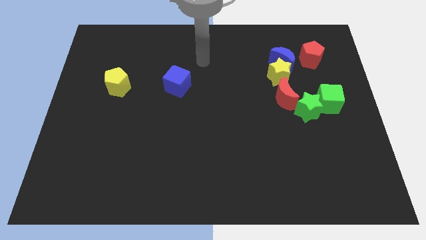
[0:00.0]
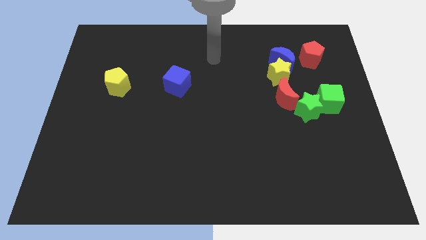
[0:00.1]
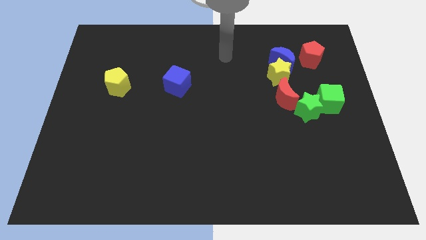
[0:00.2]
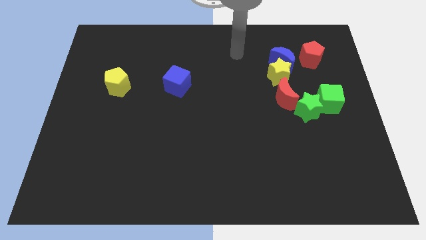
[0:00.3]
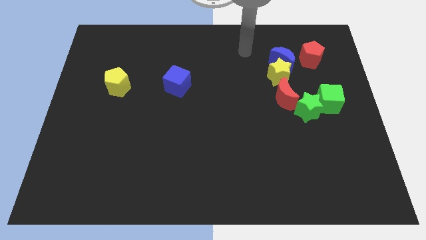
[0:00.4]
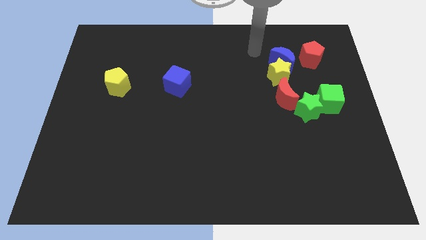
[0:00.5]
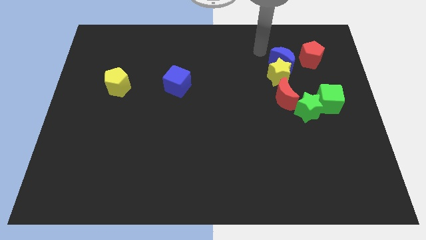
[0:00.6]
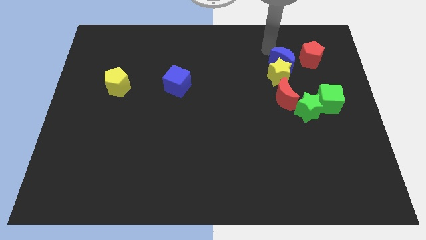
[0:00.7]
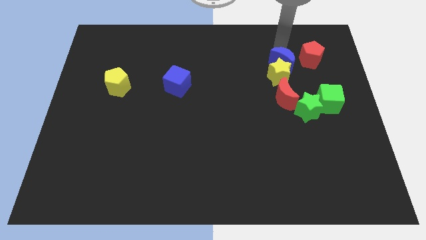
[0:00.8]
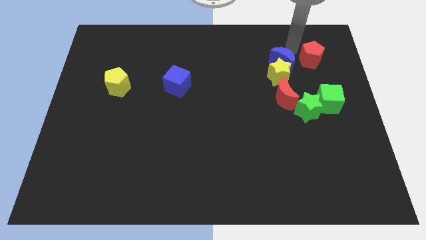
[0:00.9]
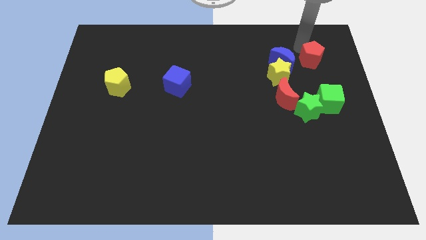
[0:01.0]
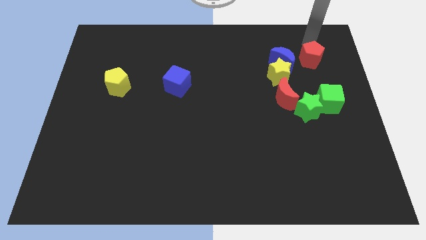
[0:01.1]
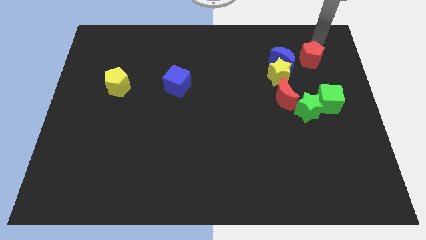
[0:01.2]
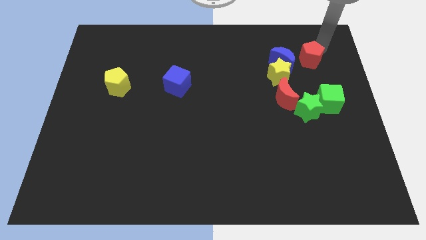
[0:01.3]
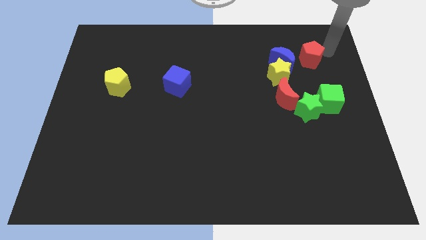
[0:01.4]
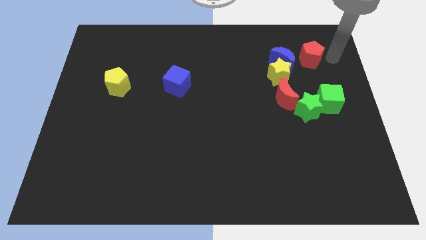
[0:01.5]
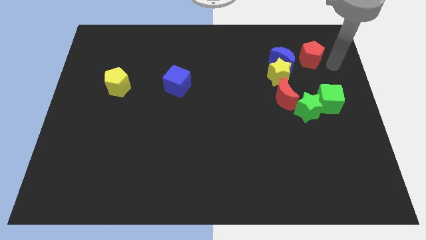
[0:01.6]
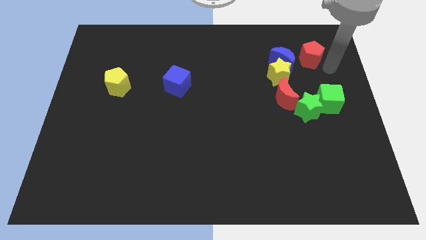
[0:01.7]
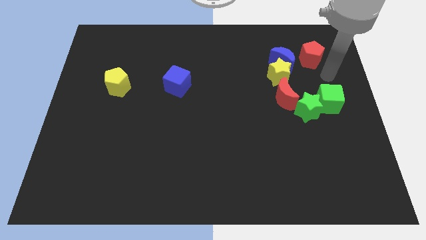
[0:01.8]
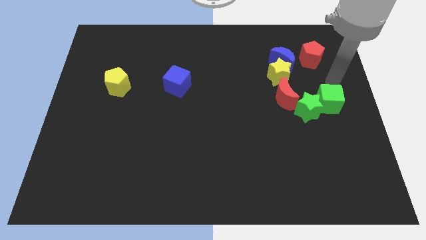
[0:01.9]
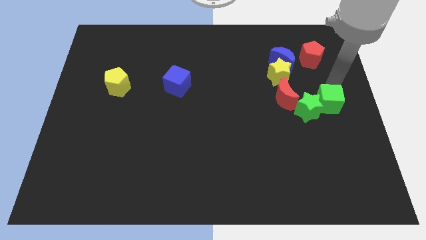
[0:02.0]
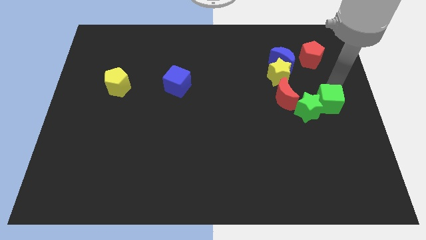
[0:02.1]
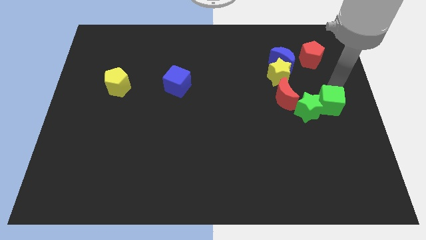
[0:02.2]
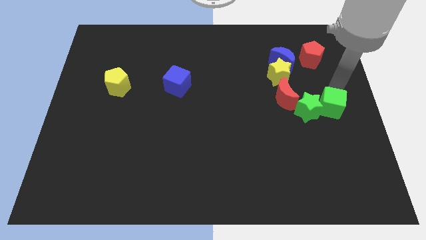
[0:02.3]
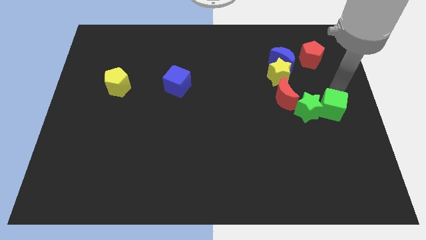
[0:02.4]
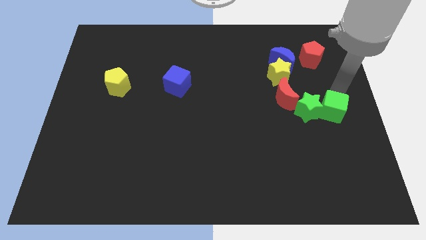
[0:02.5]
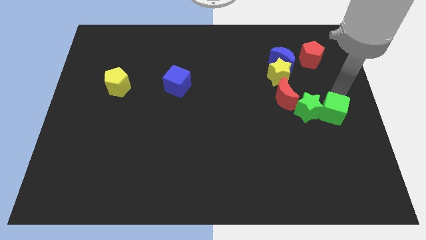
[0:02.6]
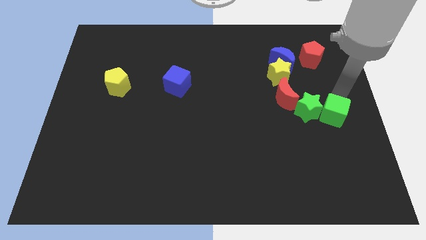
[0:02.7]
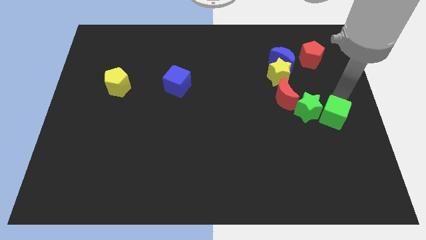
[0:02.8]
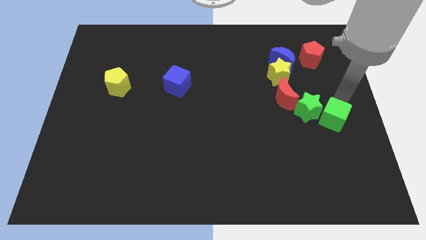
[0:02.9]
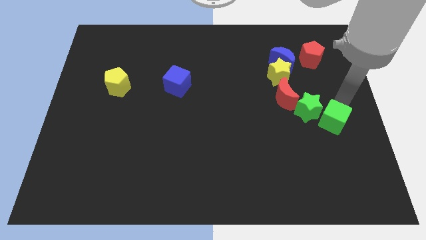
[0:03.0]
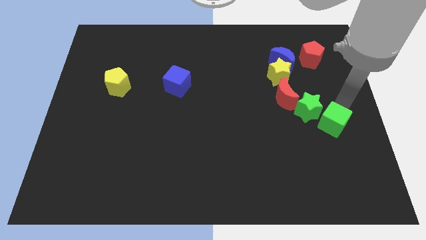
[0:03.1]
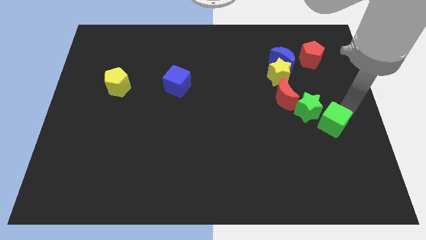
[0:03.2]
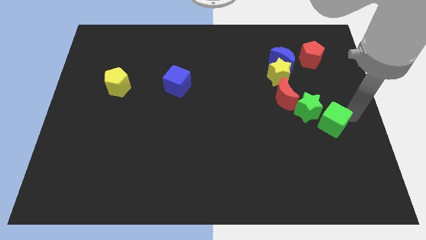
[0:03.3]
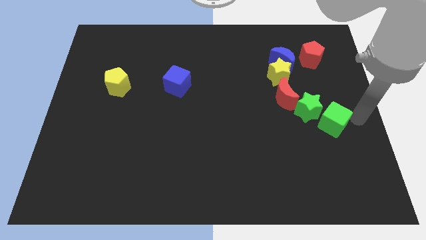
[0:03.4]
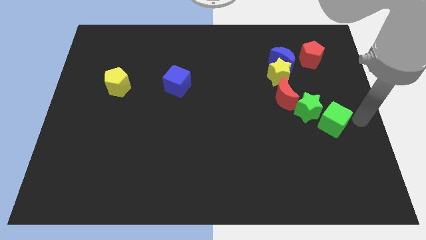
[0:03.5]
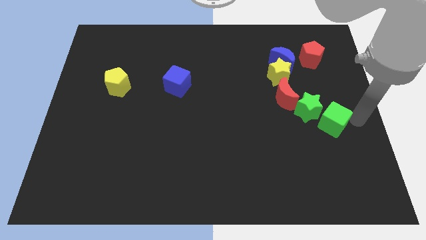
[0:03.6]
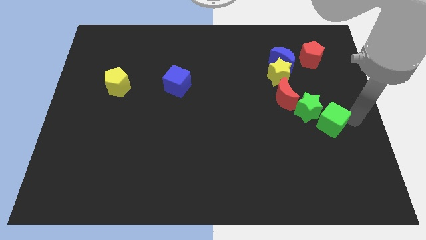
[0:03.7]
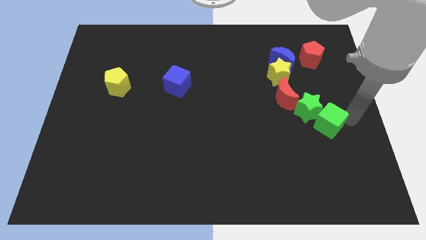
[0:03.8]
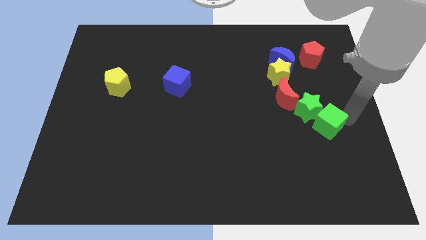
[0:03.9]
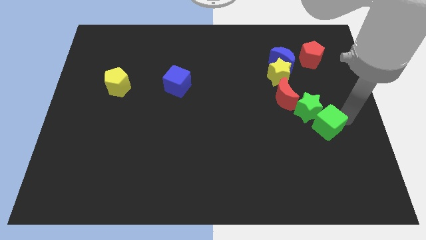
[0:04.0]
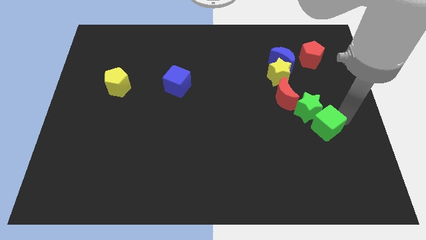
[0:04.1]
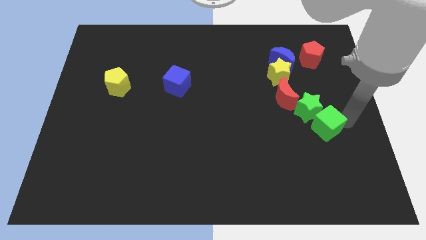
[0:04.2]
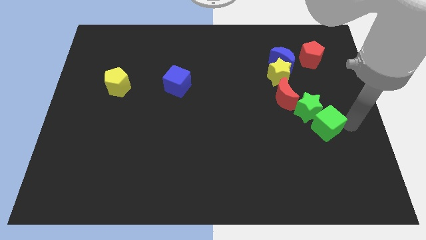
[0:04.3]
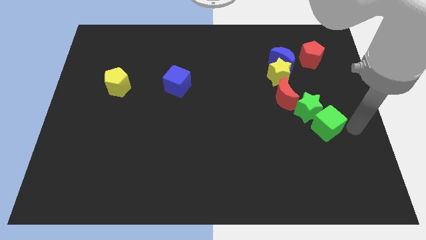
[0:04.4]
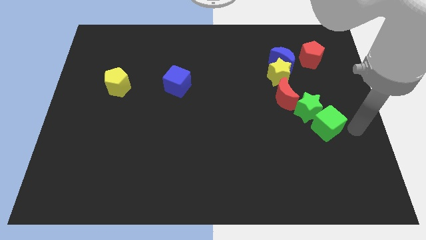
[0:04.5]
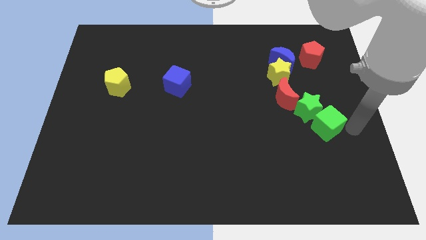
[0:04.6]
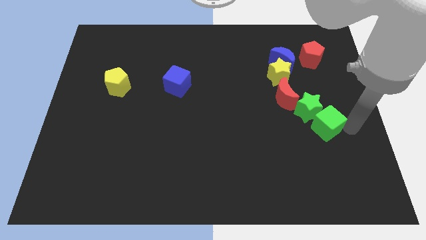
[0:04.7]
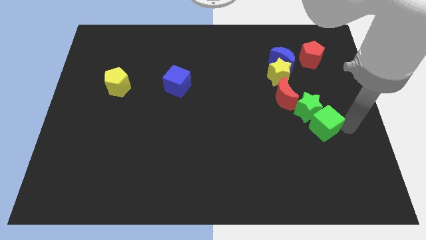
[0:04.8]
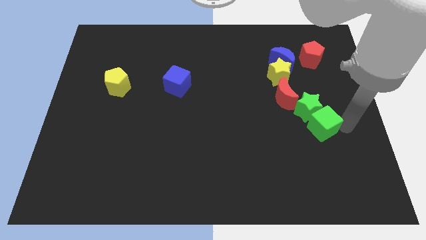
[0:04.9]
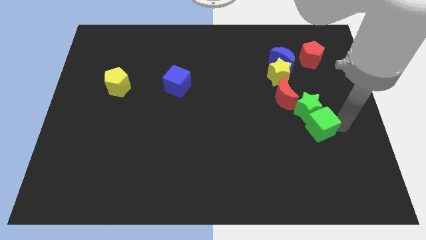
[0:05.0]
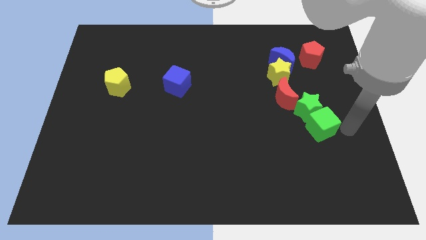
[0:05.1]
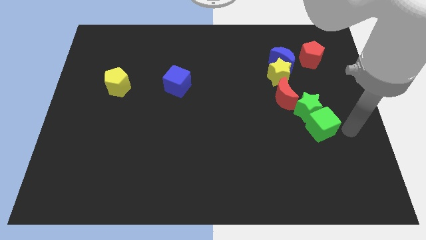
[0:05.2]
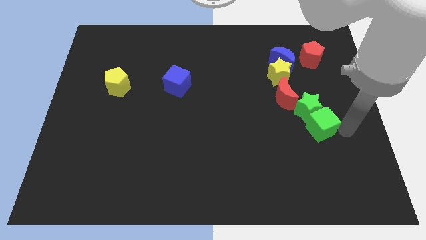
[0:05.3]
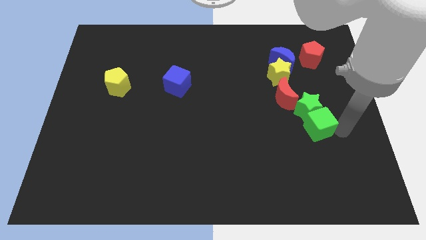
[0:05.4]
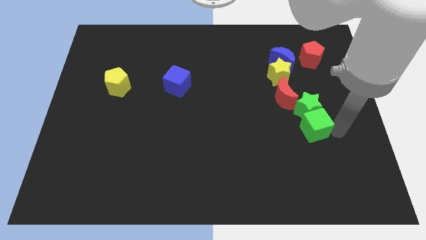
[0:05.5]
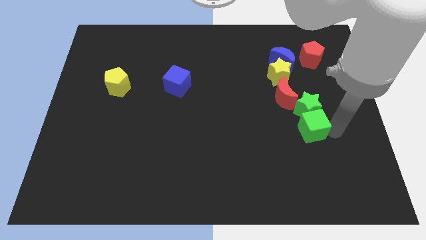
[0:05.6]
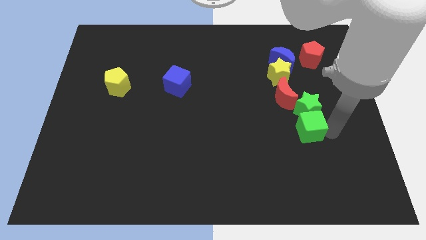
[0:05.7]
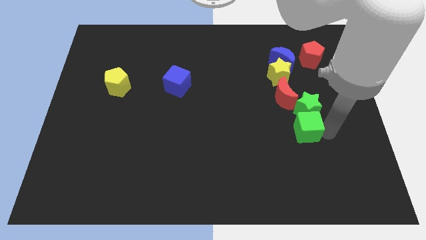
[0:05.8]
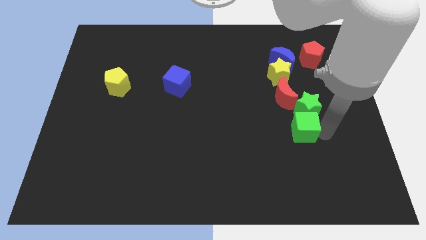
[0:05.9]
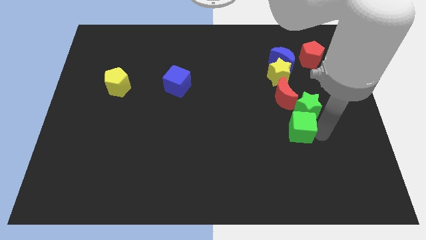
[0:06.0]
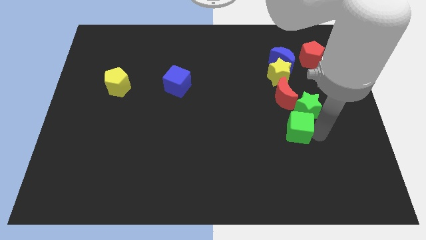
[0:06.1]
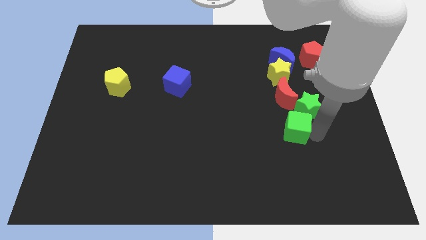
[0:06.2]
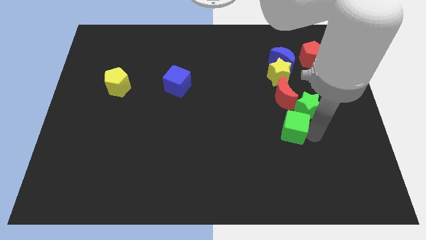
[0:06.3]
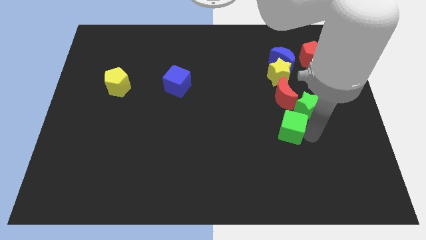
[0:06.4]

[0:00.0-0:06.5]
push the green cube to the left a little

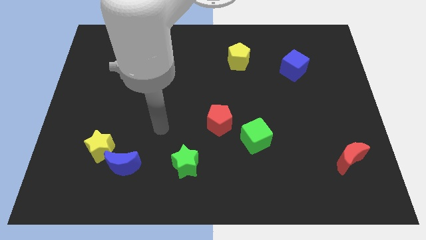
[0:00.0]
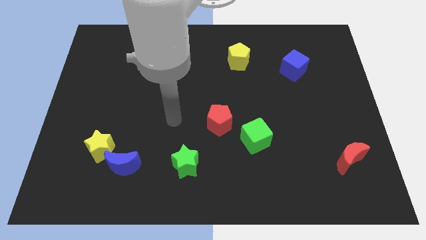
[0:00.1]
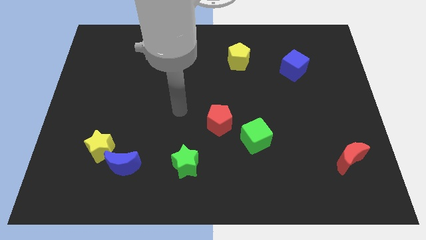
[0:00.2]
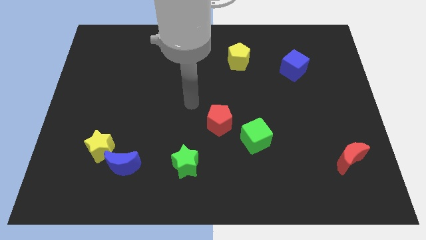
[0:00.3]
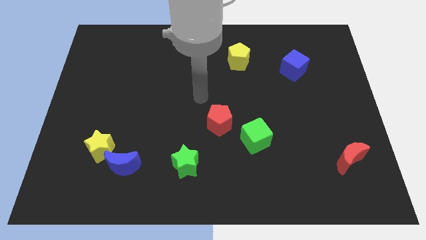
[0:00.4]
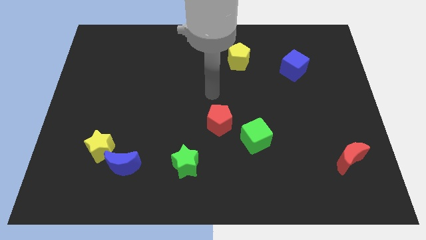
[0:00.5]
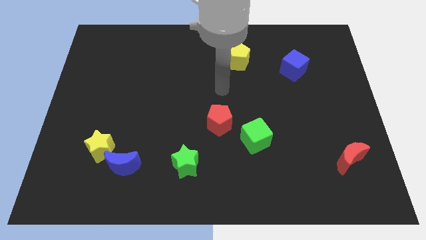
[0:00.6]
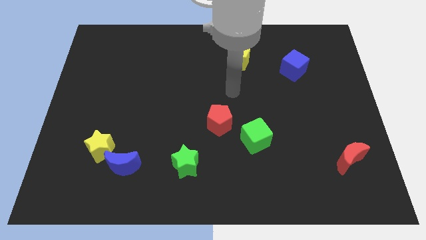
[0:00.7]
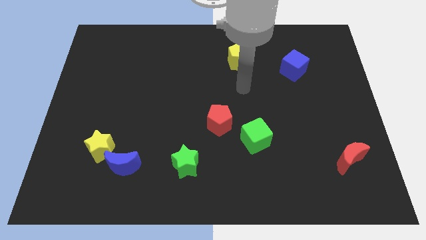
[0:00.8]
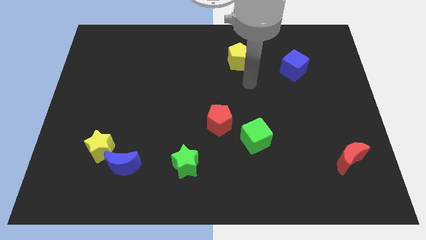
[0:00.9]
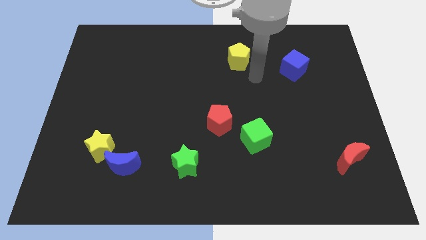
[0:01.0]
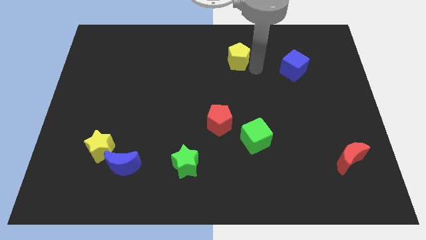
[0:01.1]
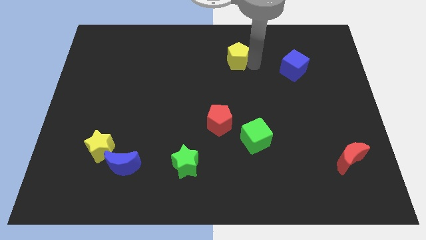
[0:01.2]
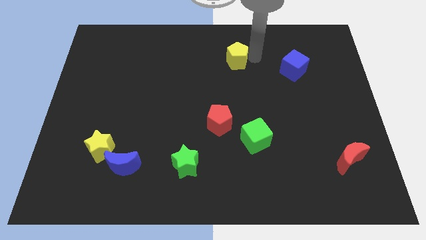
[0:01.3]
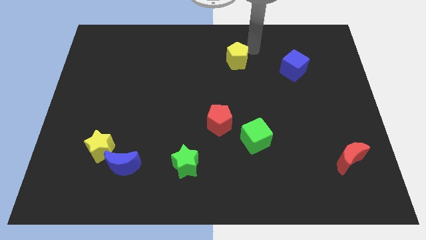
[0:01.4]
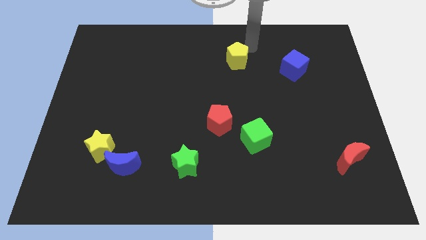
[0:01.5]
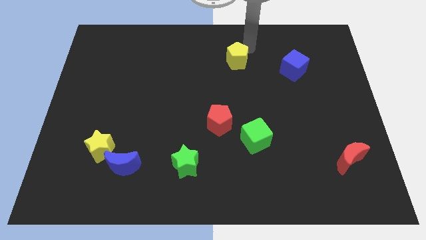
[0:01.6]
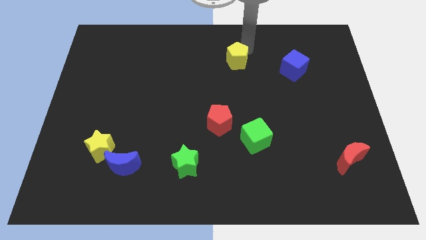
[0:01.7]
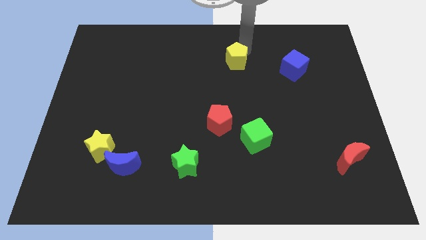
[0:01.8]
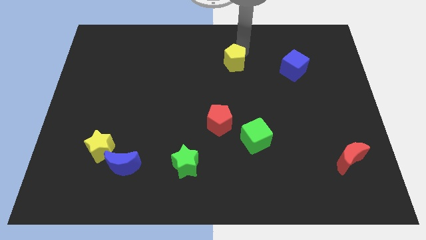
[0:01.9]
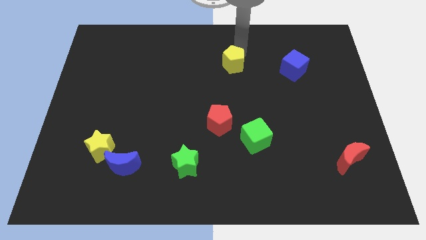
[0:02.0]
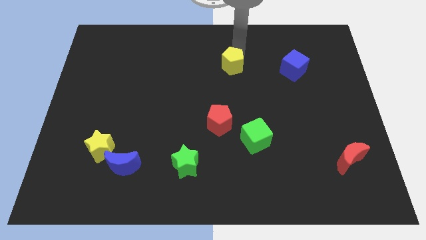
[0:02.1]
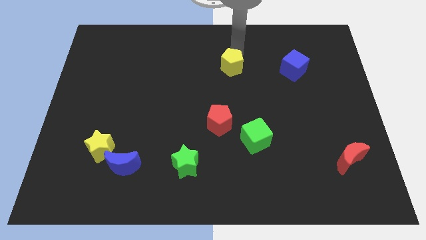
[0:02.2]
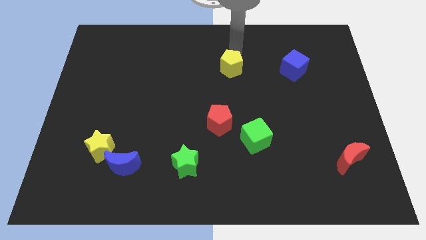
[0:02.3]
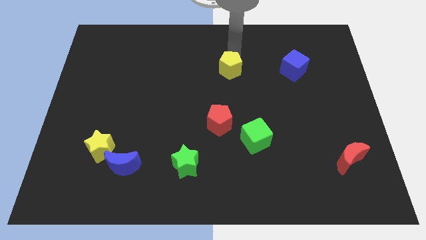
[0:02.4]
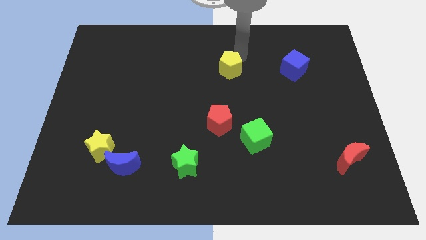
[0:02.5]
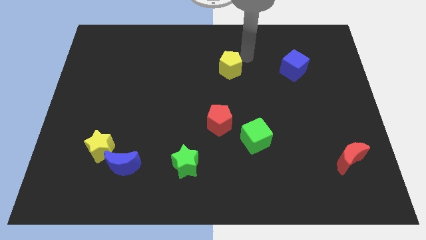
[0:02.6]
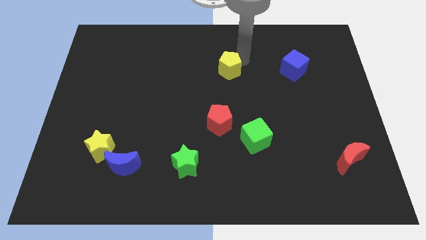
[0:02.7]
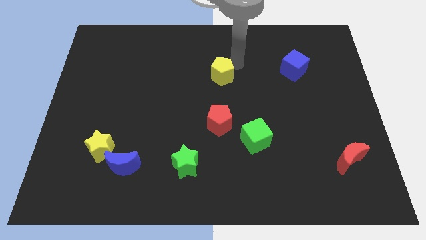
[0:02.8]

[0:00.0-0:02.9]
slightly slide the yellow pentagon down and then to the left
